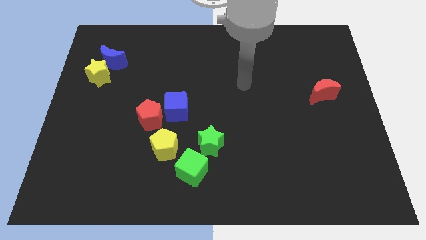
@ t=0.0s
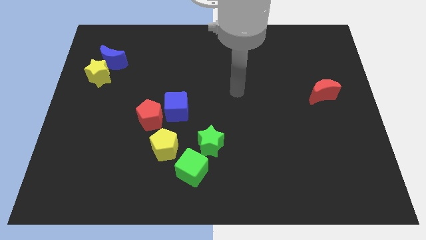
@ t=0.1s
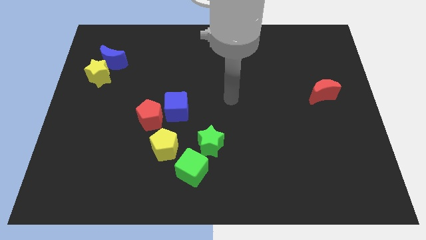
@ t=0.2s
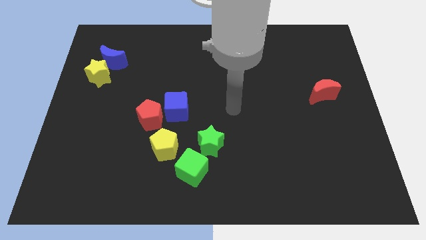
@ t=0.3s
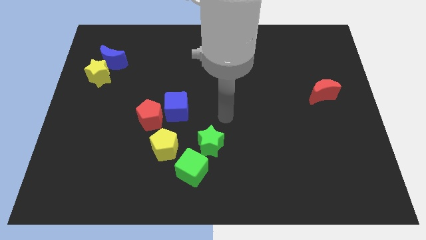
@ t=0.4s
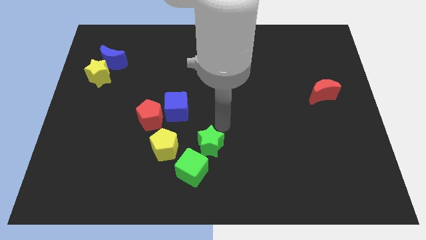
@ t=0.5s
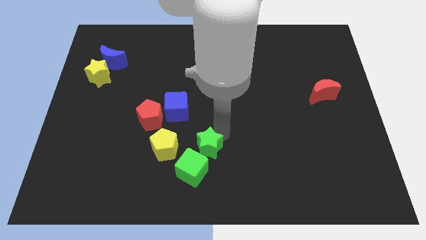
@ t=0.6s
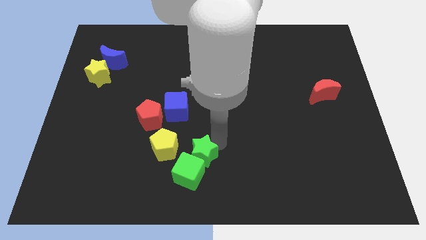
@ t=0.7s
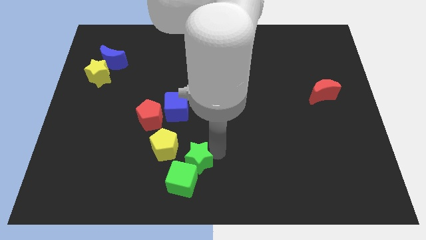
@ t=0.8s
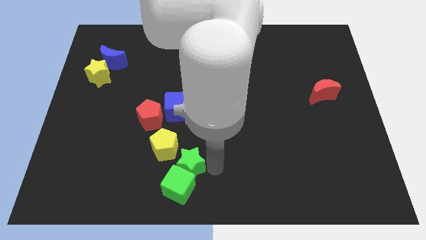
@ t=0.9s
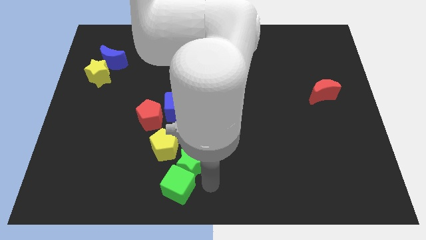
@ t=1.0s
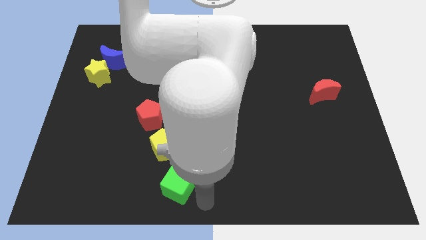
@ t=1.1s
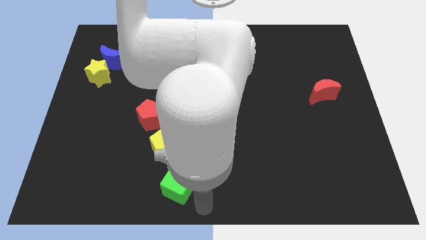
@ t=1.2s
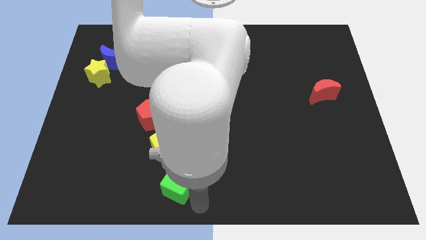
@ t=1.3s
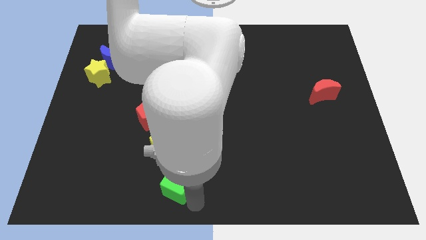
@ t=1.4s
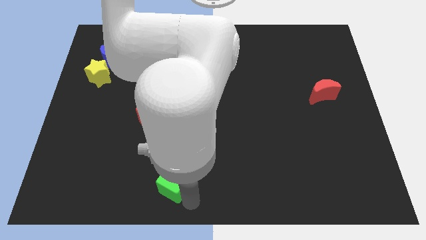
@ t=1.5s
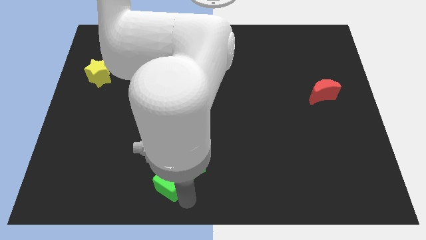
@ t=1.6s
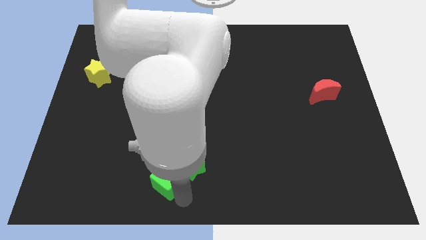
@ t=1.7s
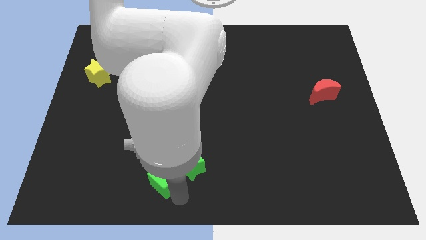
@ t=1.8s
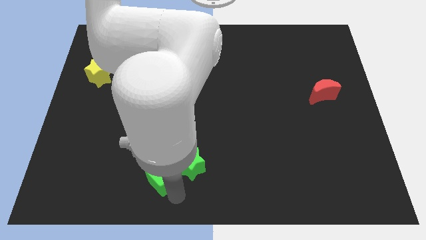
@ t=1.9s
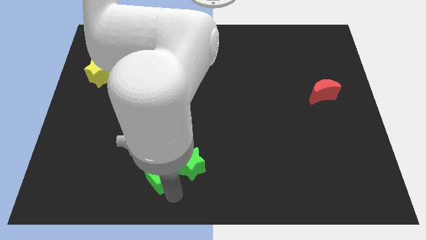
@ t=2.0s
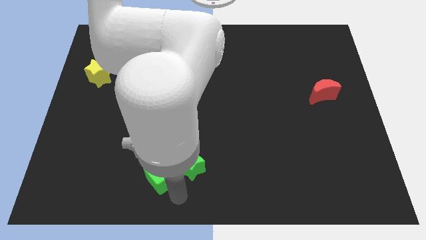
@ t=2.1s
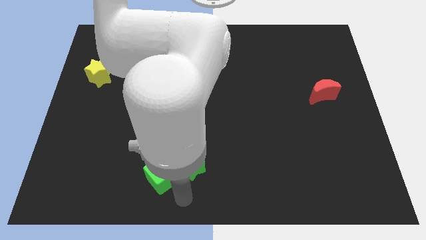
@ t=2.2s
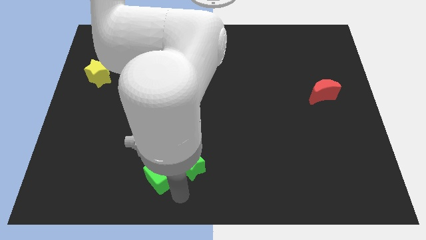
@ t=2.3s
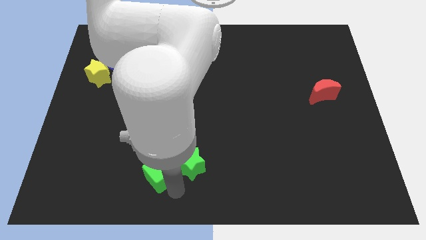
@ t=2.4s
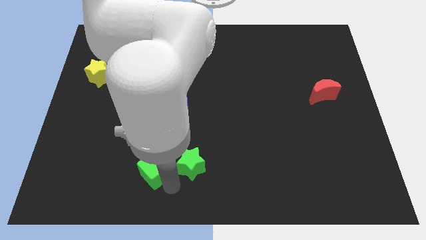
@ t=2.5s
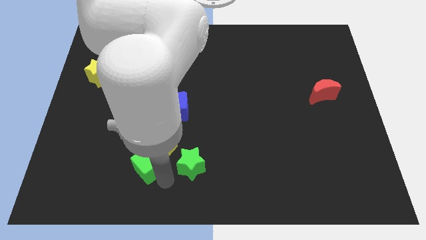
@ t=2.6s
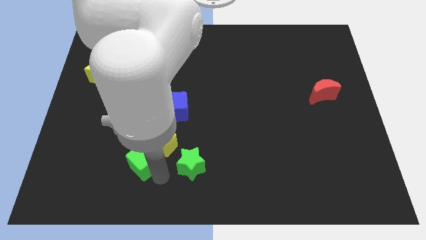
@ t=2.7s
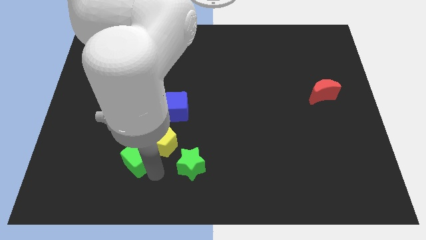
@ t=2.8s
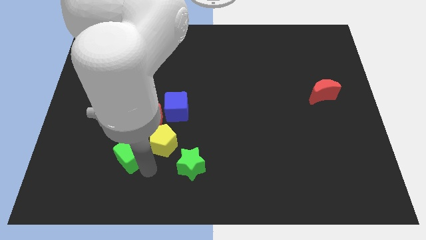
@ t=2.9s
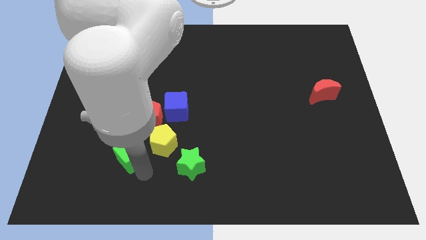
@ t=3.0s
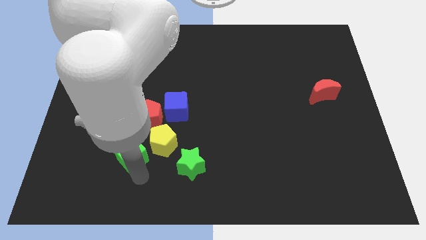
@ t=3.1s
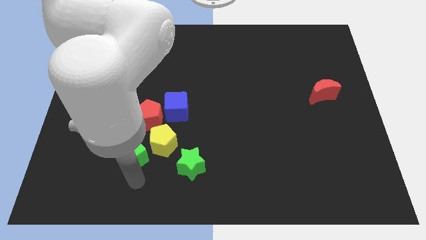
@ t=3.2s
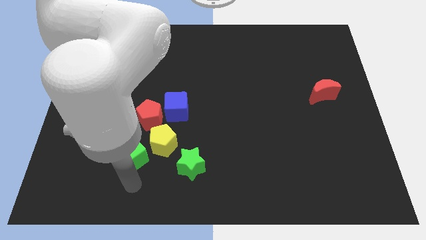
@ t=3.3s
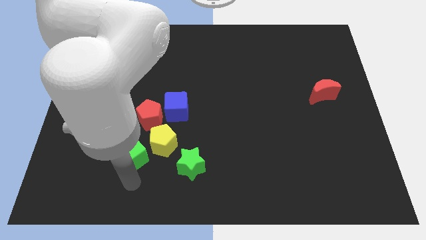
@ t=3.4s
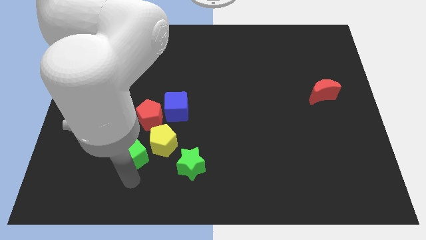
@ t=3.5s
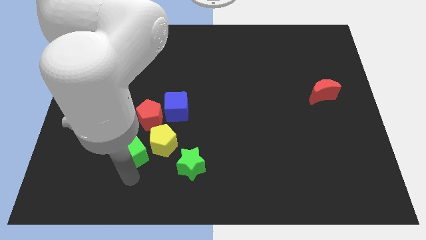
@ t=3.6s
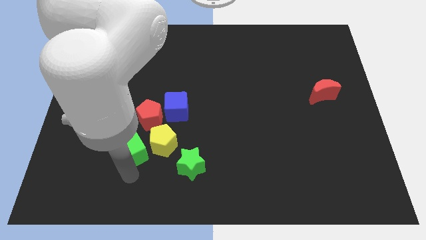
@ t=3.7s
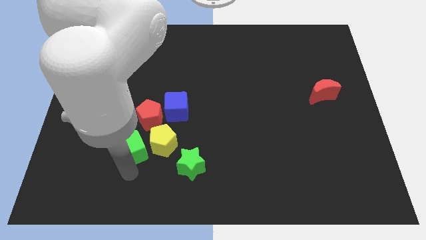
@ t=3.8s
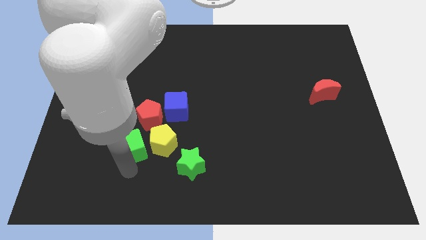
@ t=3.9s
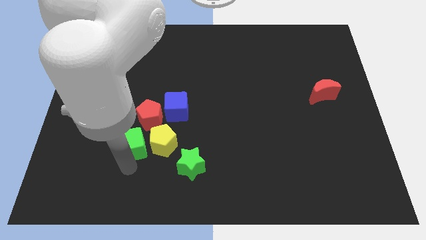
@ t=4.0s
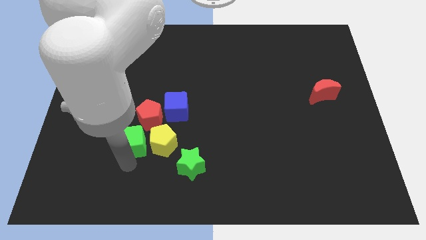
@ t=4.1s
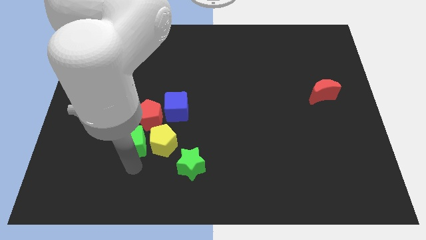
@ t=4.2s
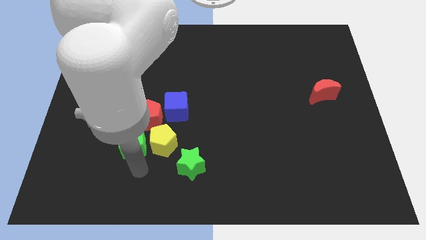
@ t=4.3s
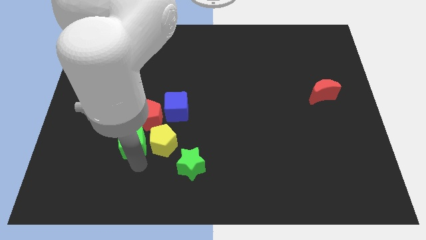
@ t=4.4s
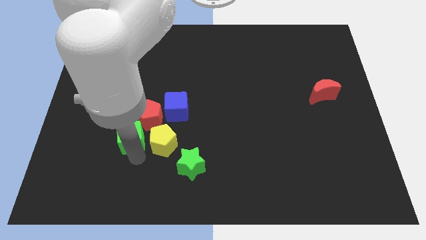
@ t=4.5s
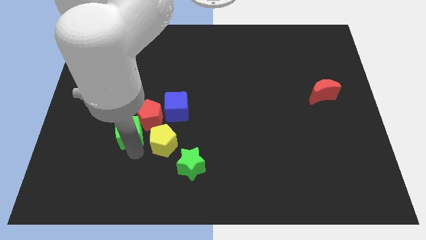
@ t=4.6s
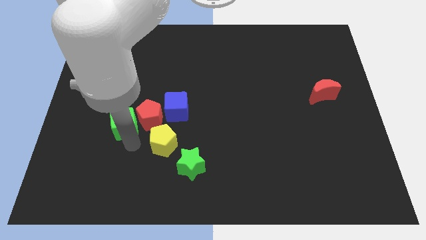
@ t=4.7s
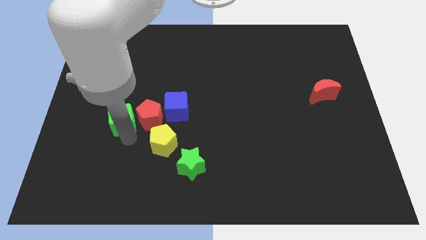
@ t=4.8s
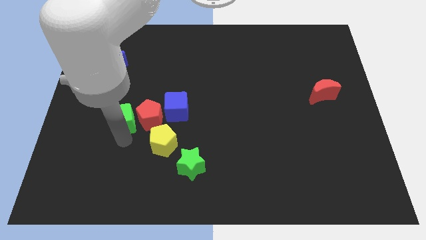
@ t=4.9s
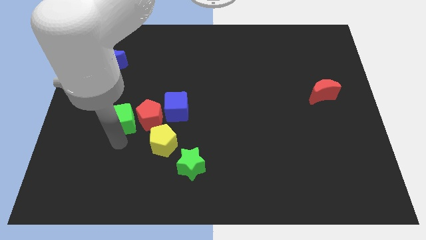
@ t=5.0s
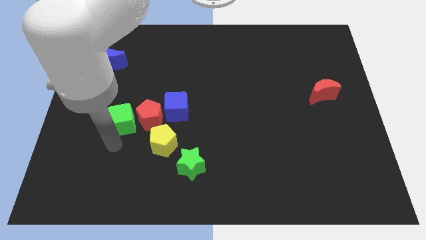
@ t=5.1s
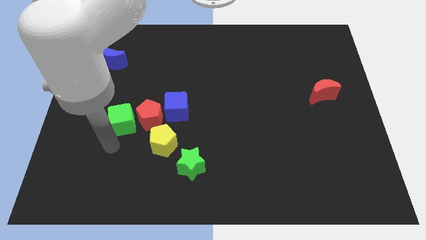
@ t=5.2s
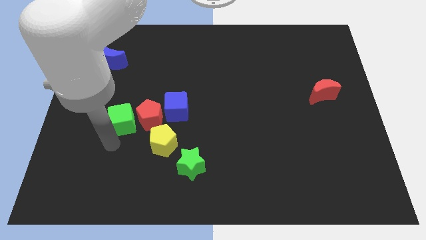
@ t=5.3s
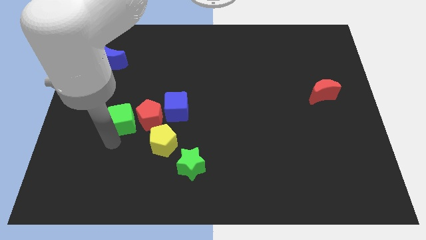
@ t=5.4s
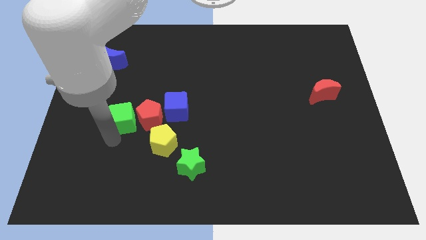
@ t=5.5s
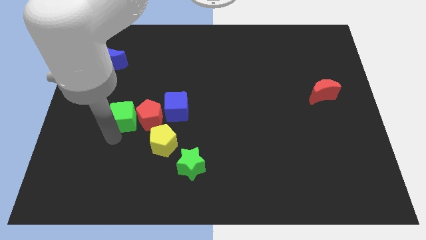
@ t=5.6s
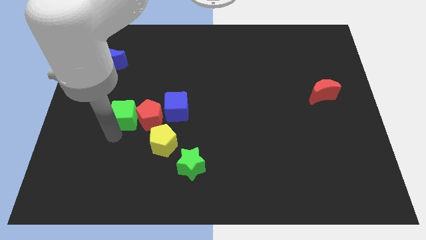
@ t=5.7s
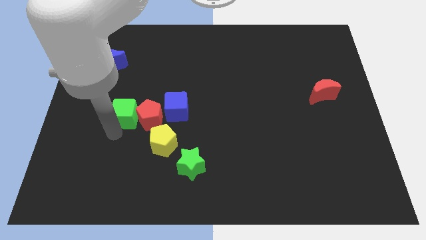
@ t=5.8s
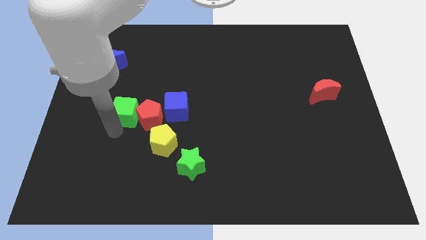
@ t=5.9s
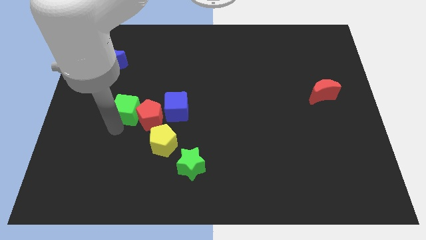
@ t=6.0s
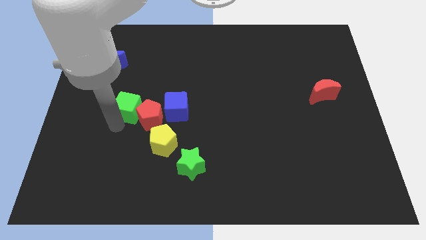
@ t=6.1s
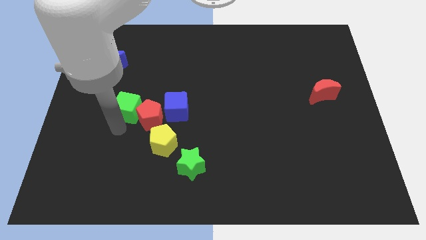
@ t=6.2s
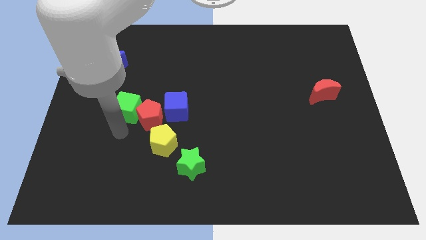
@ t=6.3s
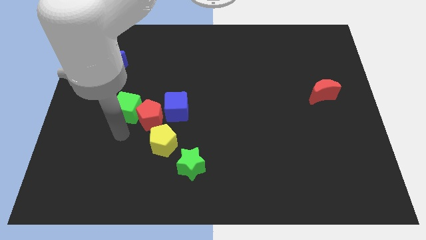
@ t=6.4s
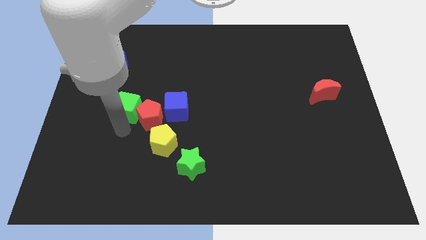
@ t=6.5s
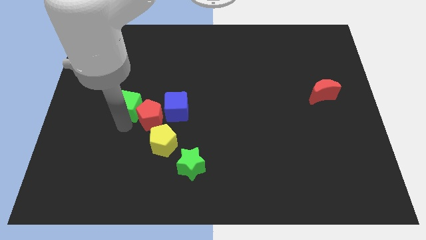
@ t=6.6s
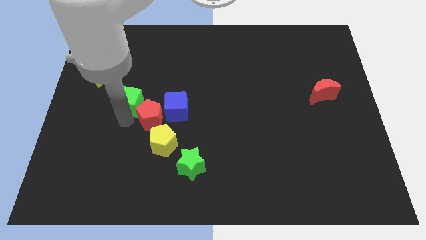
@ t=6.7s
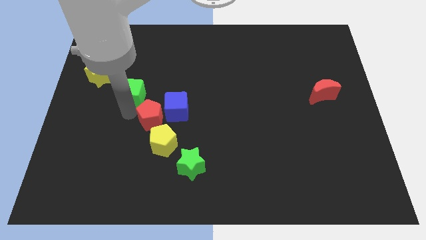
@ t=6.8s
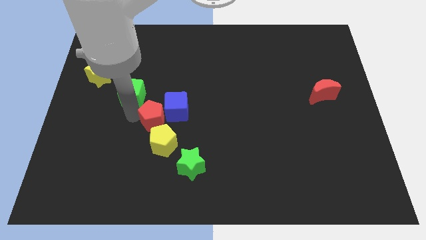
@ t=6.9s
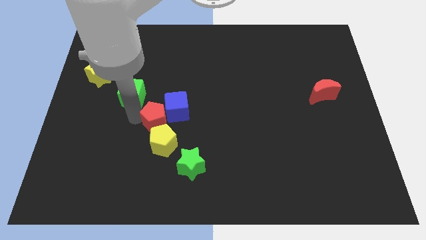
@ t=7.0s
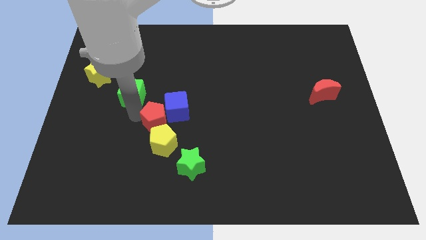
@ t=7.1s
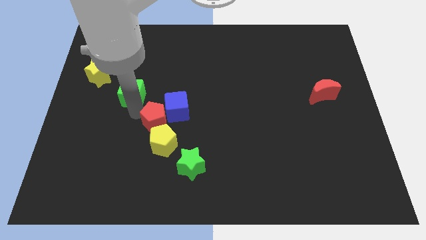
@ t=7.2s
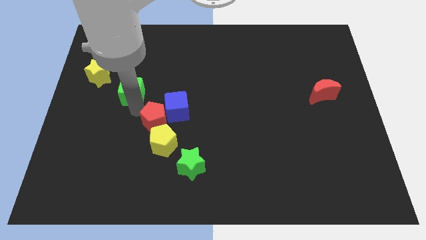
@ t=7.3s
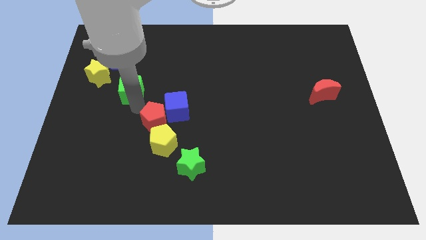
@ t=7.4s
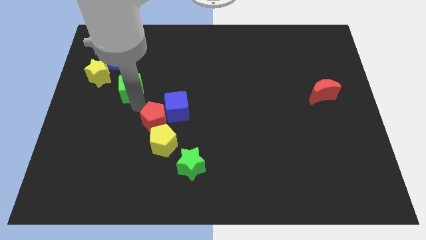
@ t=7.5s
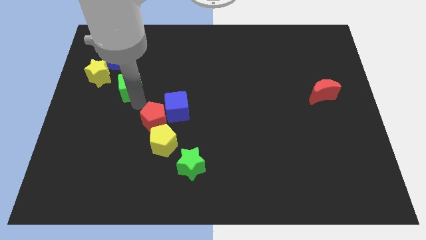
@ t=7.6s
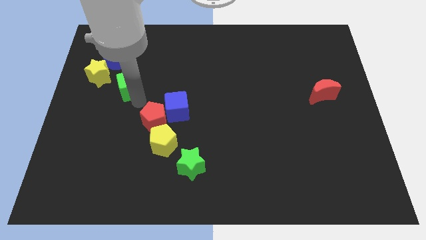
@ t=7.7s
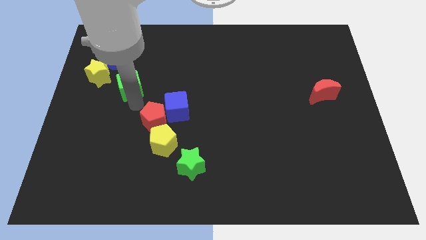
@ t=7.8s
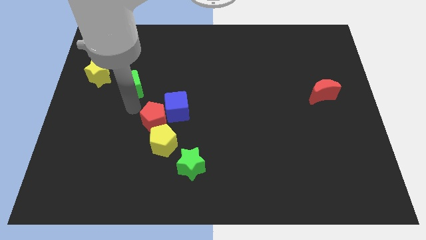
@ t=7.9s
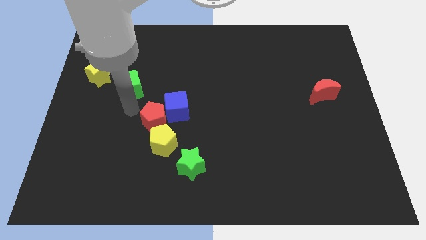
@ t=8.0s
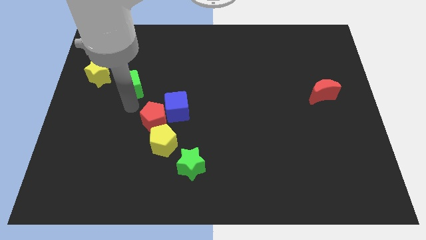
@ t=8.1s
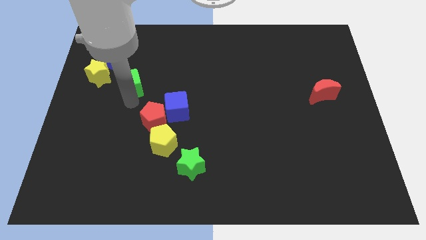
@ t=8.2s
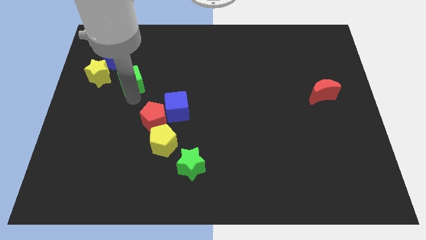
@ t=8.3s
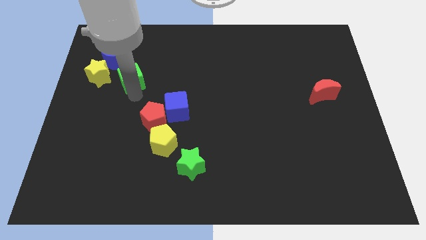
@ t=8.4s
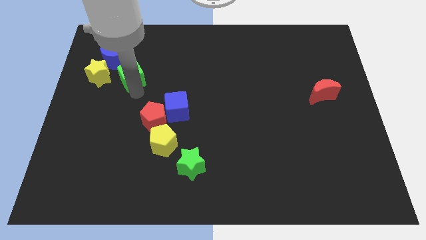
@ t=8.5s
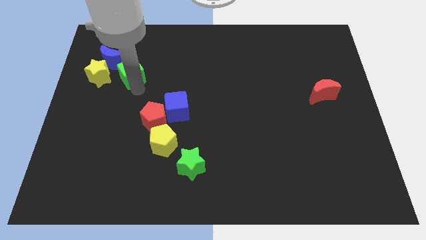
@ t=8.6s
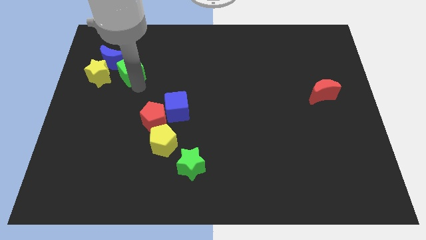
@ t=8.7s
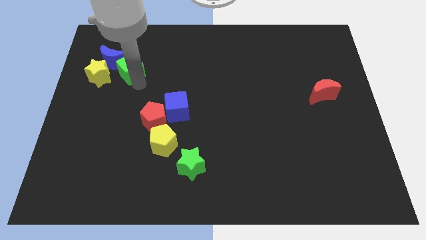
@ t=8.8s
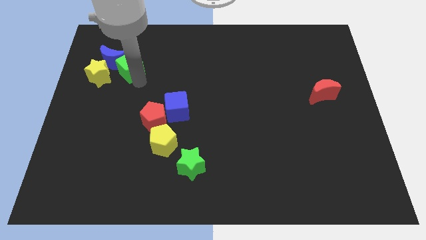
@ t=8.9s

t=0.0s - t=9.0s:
move the green cube to the blue moon
